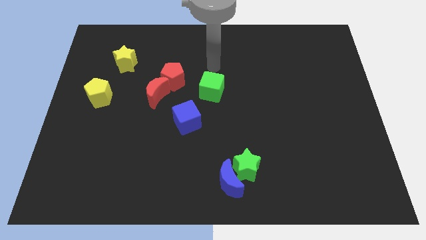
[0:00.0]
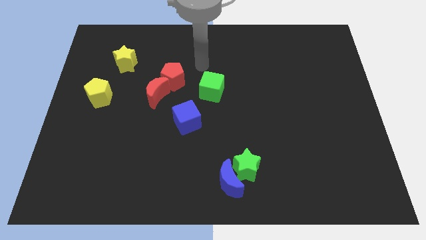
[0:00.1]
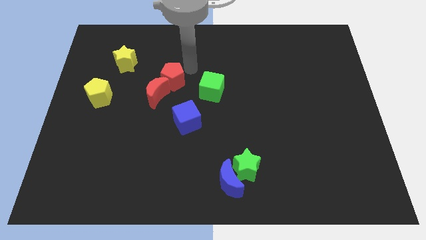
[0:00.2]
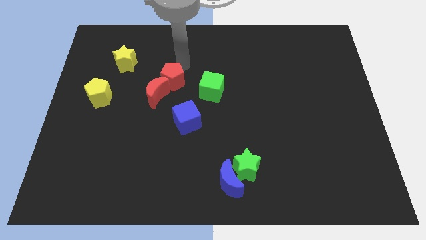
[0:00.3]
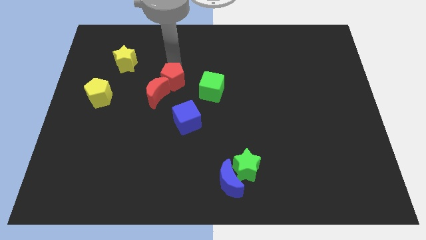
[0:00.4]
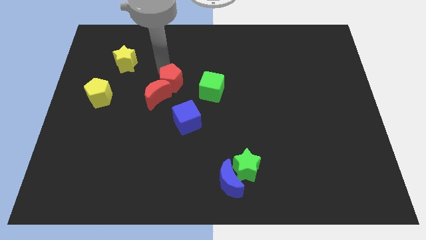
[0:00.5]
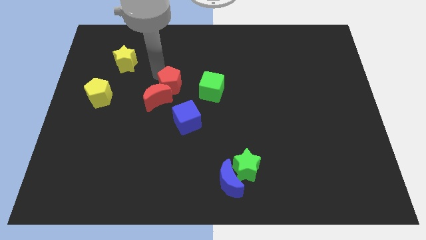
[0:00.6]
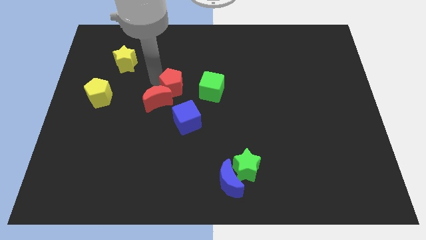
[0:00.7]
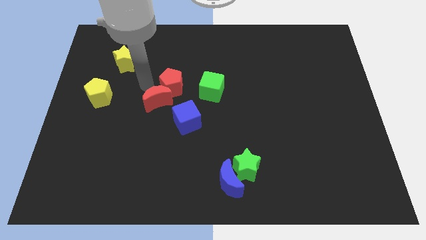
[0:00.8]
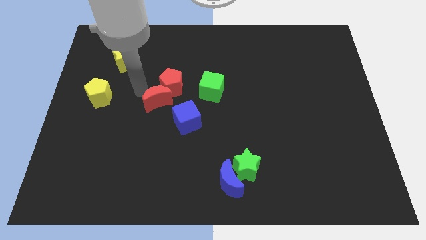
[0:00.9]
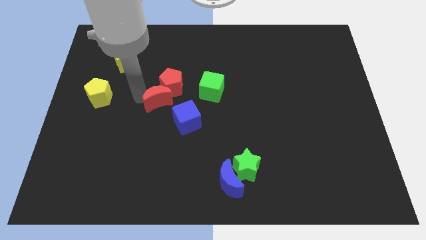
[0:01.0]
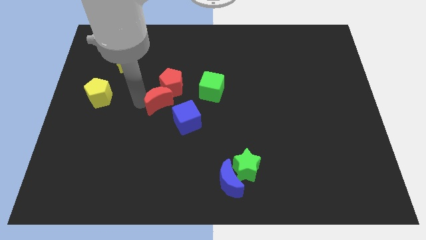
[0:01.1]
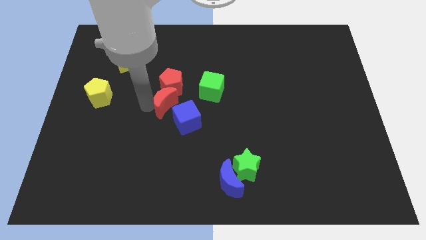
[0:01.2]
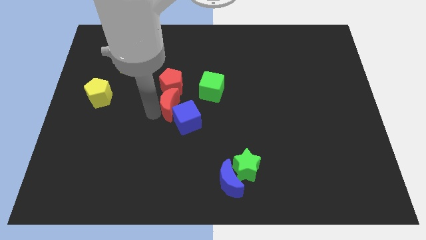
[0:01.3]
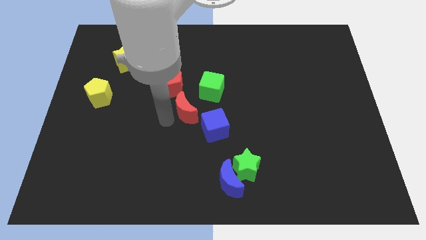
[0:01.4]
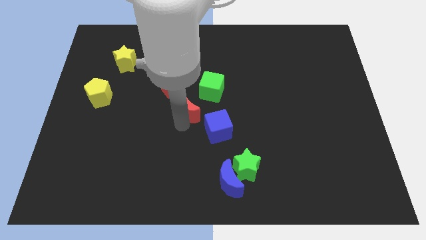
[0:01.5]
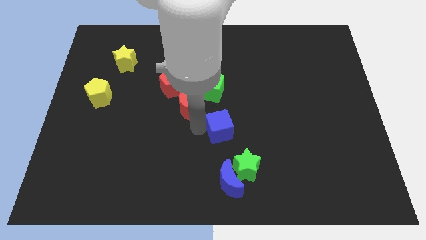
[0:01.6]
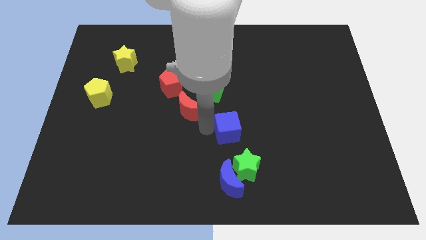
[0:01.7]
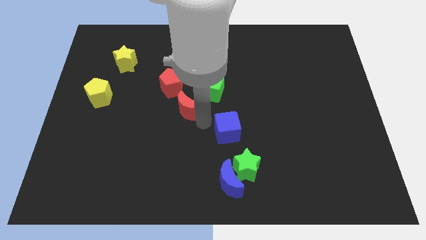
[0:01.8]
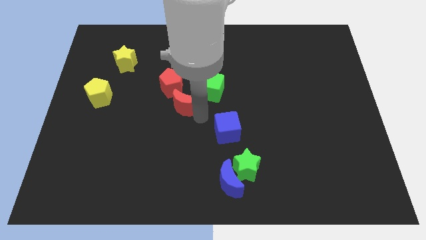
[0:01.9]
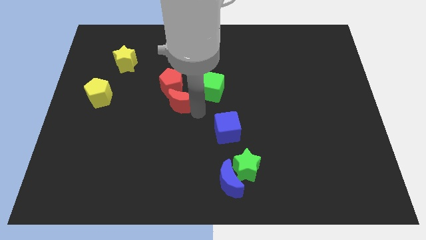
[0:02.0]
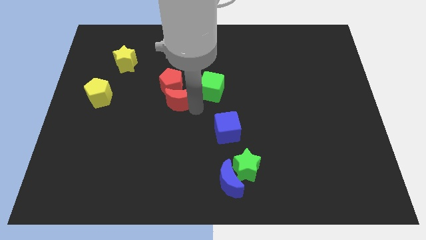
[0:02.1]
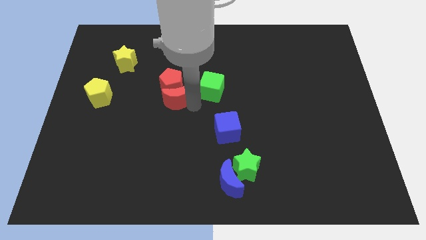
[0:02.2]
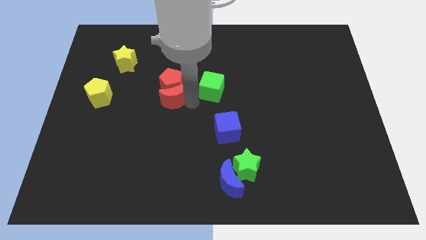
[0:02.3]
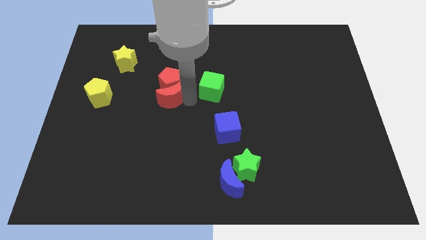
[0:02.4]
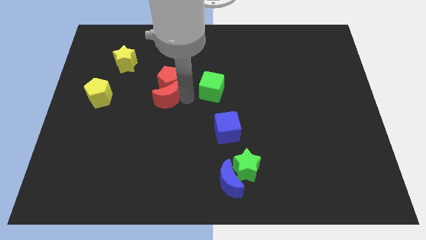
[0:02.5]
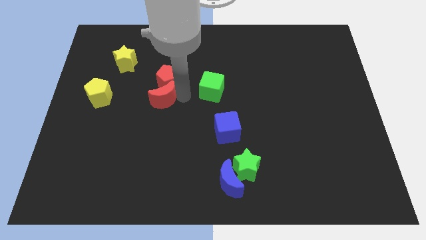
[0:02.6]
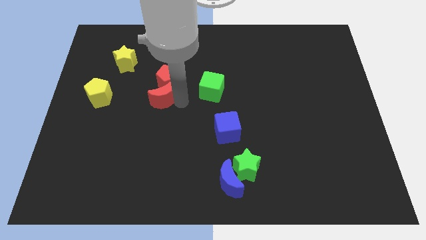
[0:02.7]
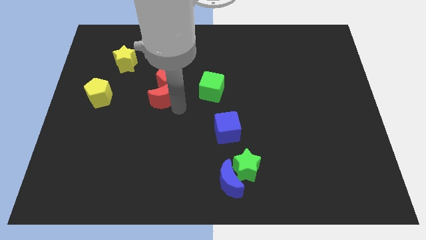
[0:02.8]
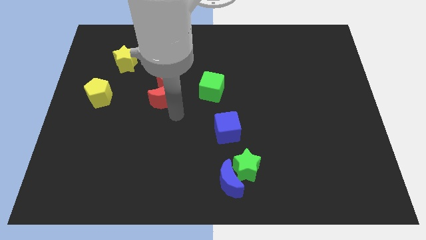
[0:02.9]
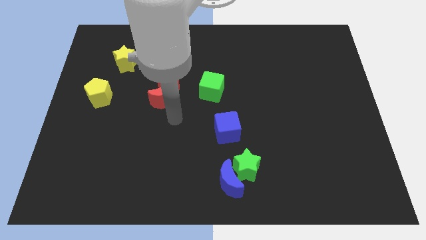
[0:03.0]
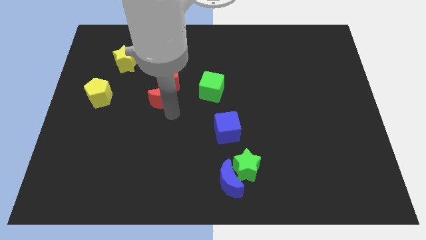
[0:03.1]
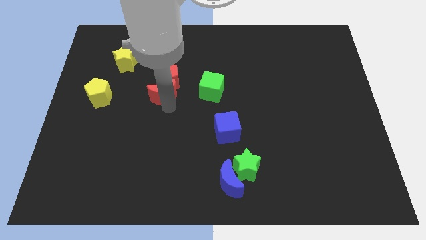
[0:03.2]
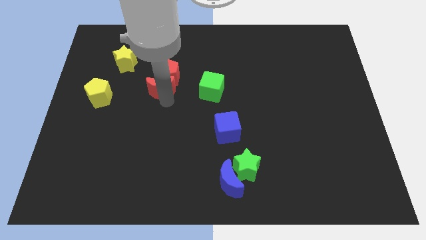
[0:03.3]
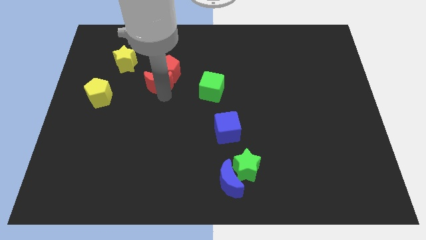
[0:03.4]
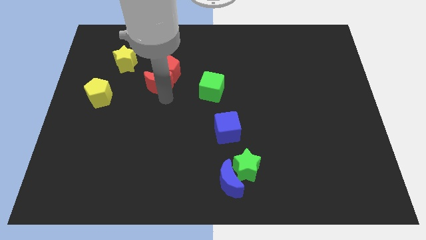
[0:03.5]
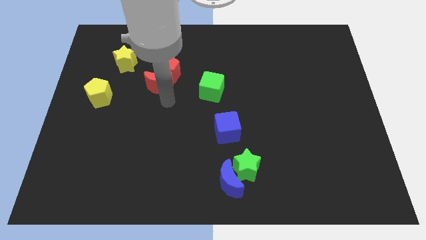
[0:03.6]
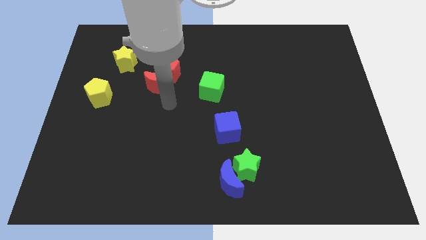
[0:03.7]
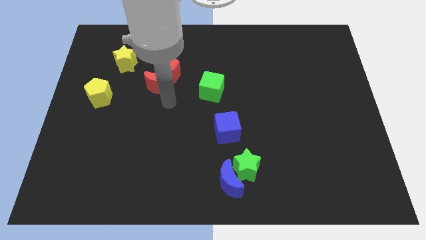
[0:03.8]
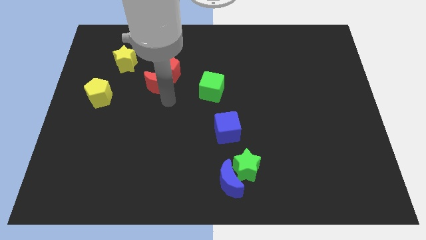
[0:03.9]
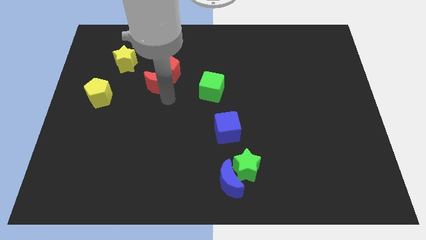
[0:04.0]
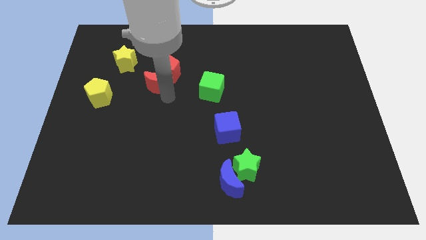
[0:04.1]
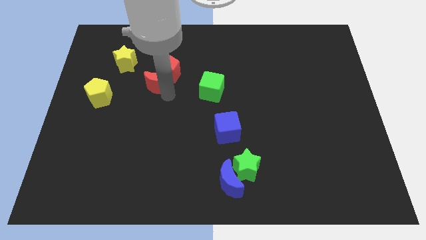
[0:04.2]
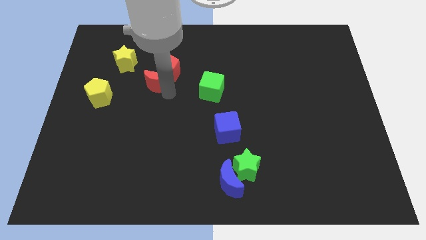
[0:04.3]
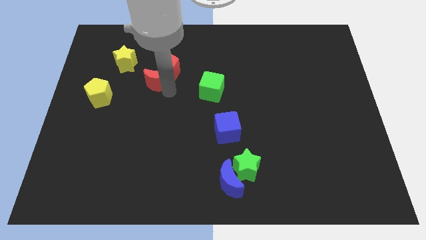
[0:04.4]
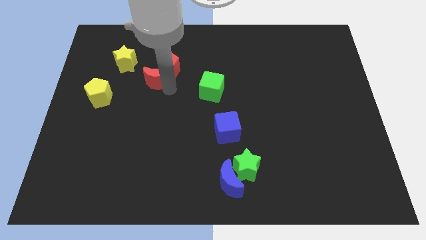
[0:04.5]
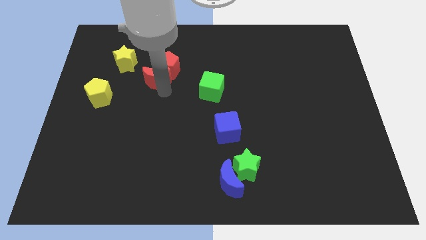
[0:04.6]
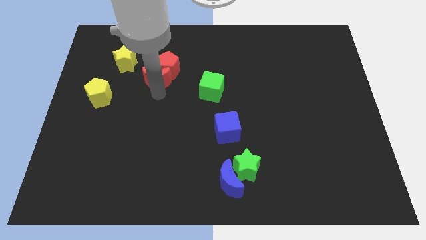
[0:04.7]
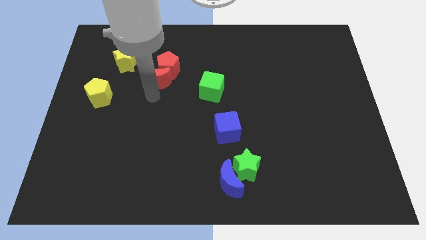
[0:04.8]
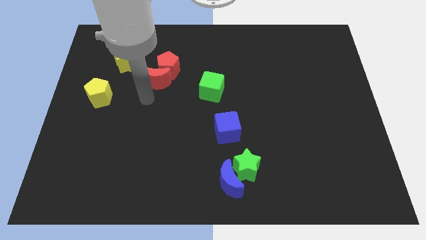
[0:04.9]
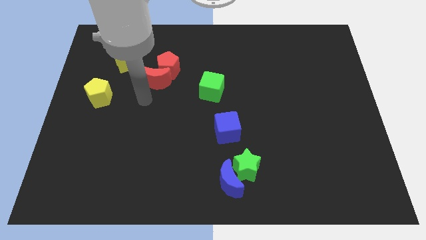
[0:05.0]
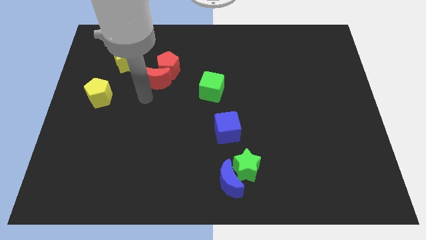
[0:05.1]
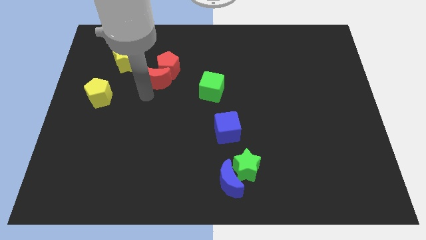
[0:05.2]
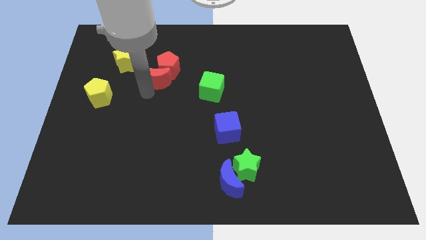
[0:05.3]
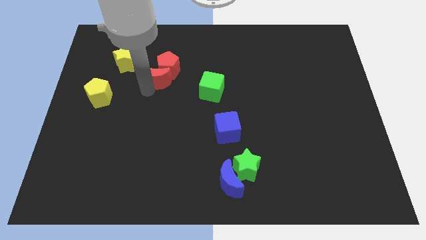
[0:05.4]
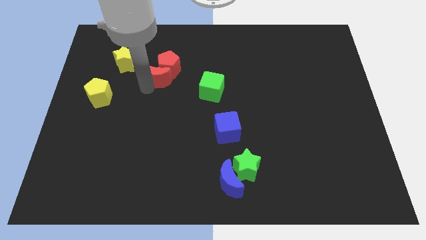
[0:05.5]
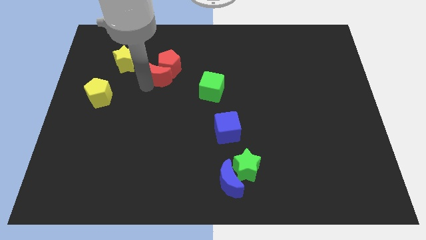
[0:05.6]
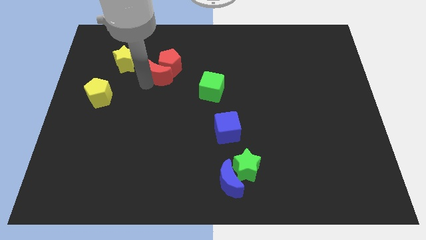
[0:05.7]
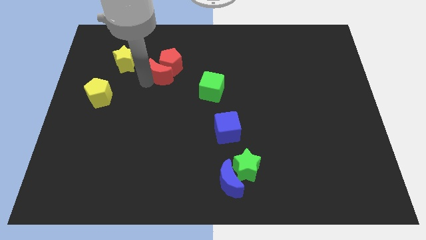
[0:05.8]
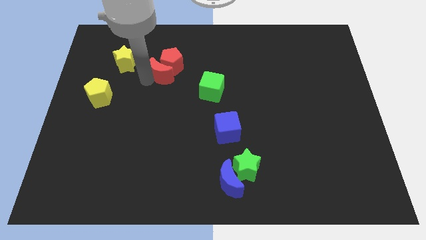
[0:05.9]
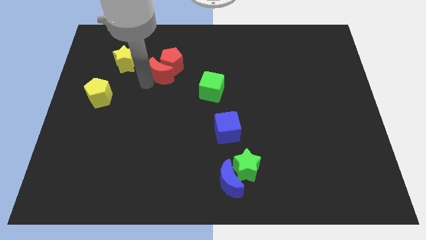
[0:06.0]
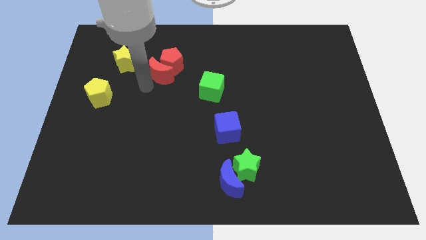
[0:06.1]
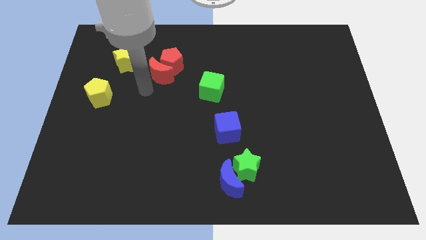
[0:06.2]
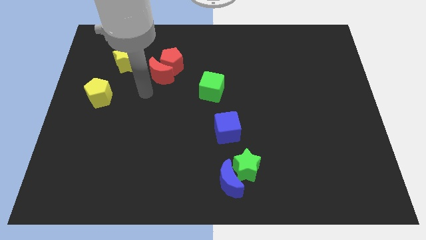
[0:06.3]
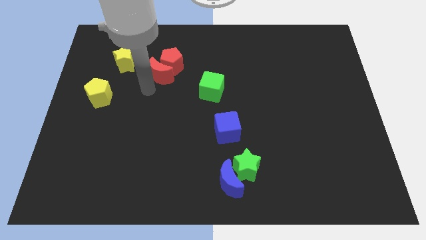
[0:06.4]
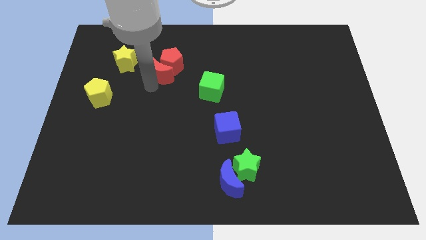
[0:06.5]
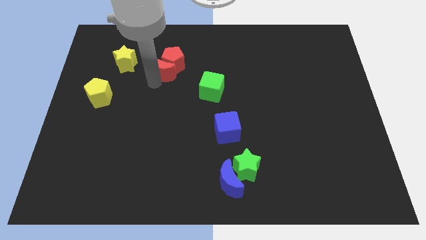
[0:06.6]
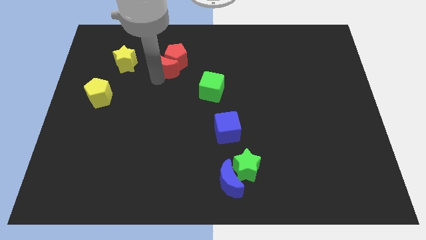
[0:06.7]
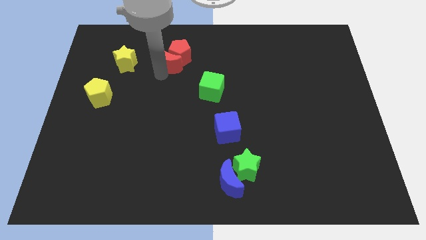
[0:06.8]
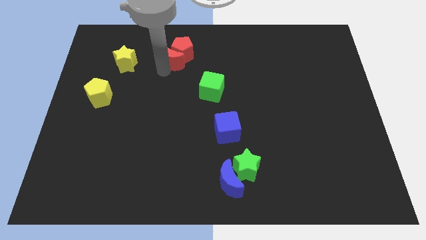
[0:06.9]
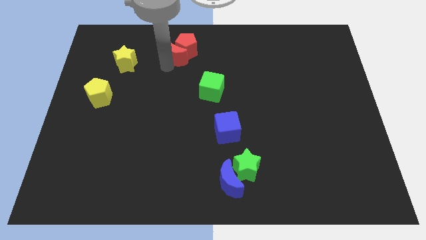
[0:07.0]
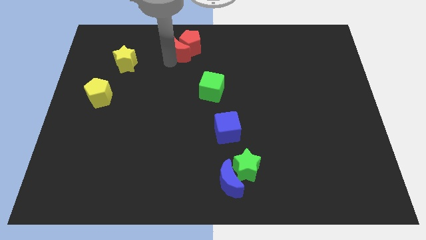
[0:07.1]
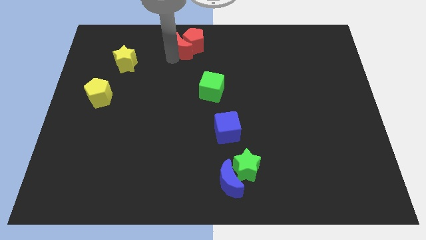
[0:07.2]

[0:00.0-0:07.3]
push the red moon to the top
